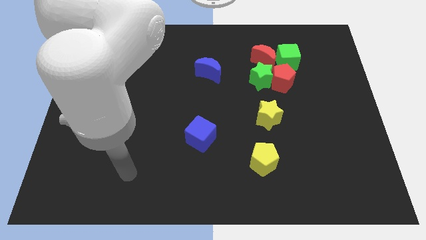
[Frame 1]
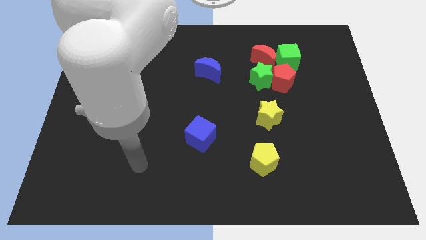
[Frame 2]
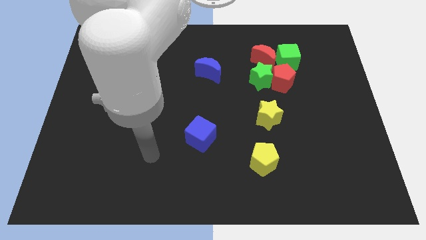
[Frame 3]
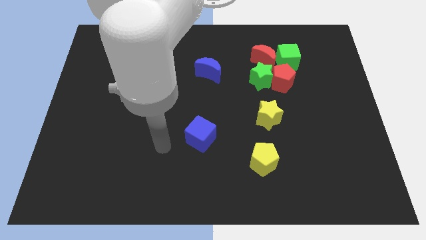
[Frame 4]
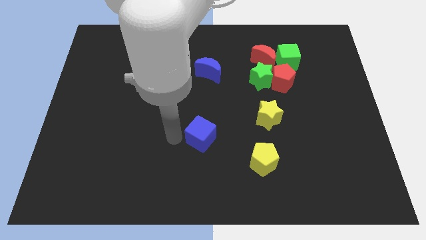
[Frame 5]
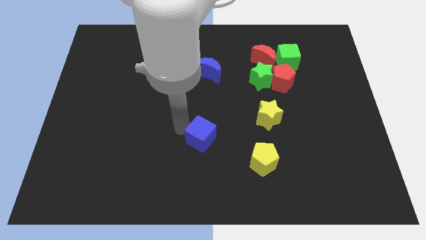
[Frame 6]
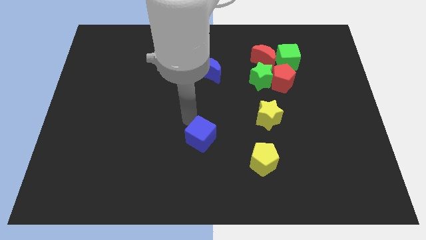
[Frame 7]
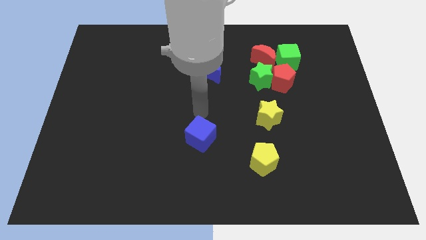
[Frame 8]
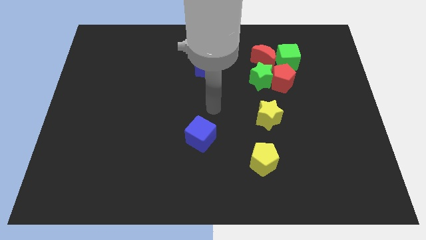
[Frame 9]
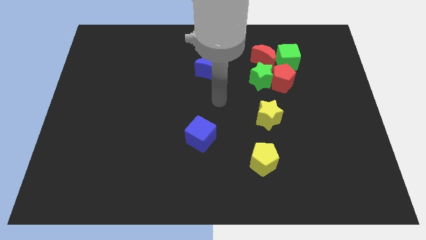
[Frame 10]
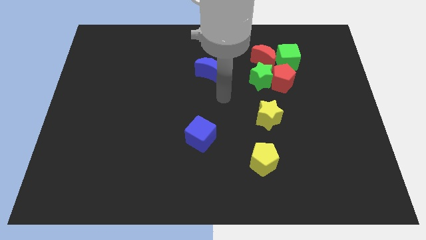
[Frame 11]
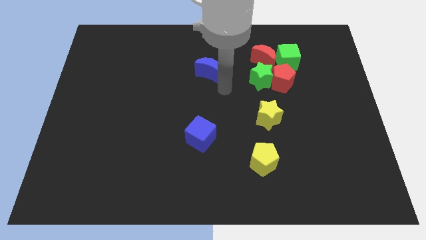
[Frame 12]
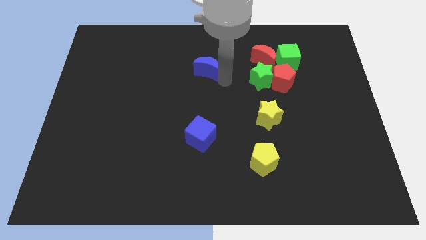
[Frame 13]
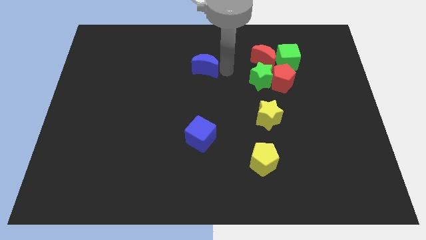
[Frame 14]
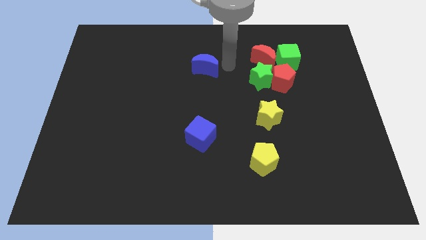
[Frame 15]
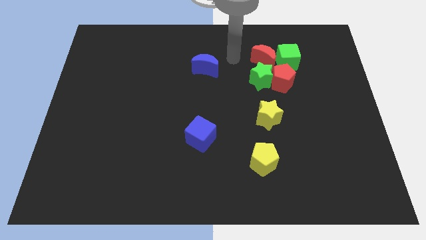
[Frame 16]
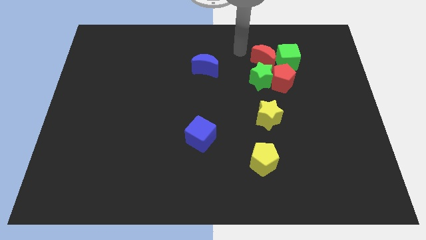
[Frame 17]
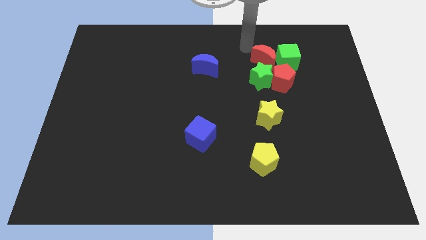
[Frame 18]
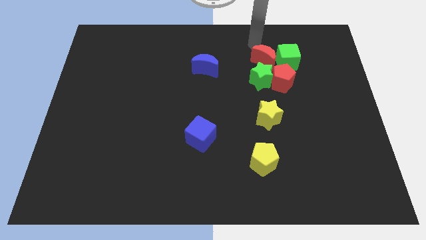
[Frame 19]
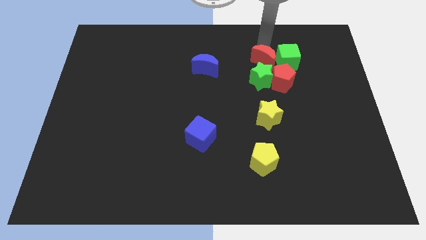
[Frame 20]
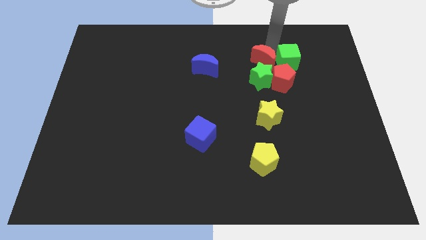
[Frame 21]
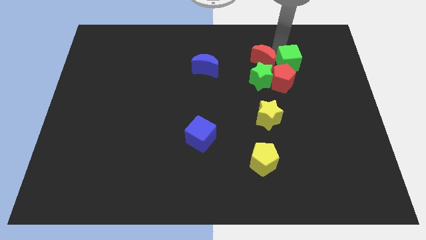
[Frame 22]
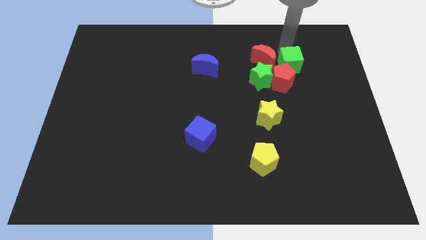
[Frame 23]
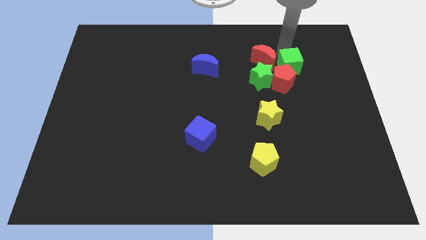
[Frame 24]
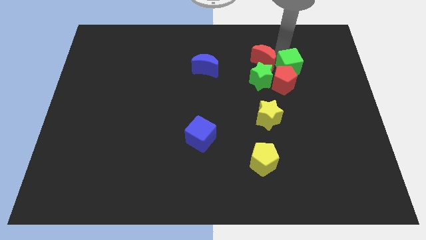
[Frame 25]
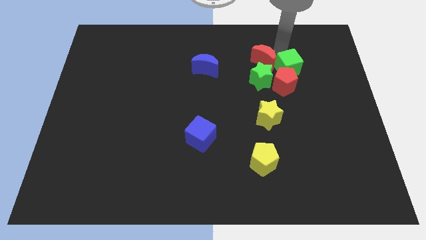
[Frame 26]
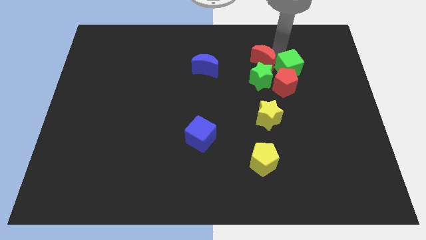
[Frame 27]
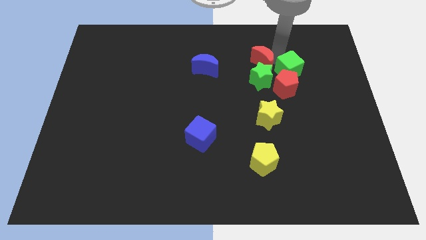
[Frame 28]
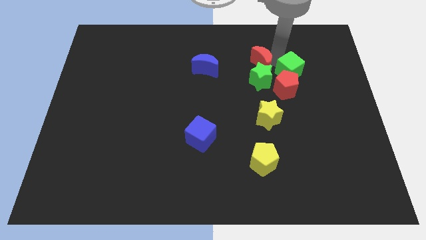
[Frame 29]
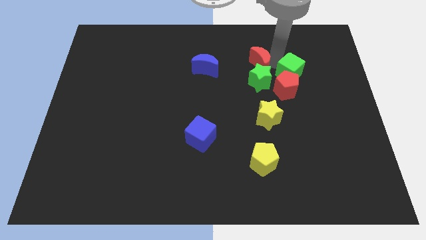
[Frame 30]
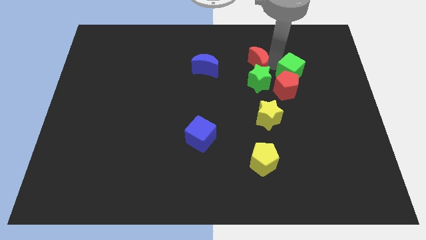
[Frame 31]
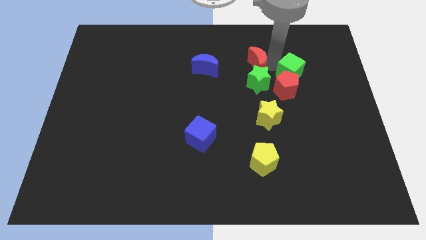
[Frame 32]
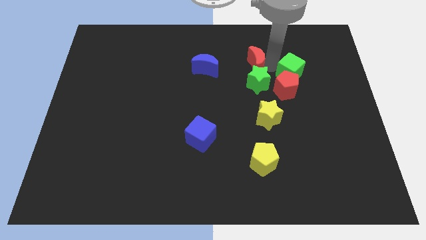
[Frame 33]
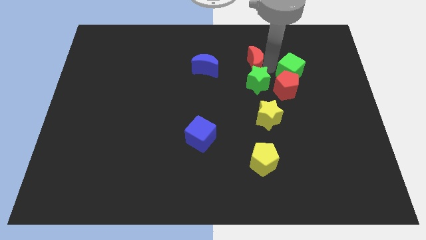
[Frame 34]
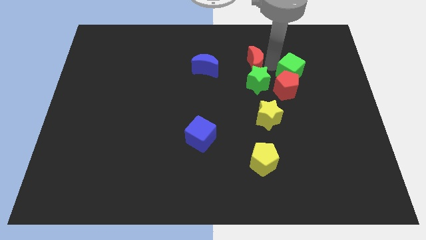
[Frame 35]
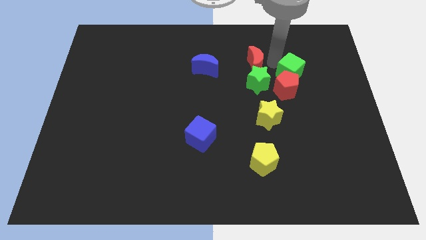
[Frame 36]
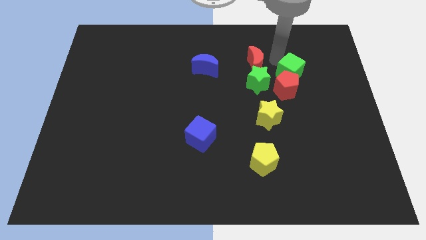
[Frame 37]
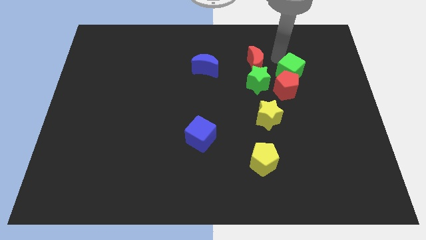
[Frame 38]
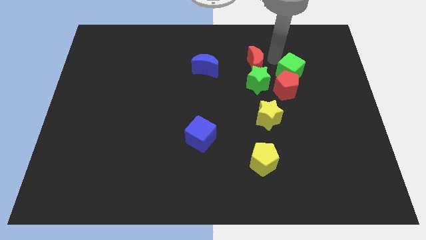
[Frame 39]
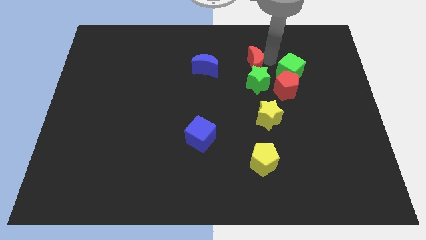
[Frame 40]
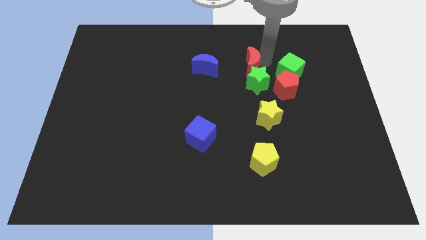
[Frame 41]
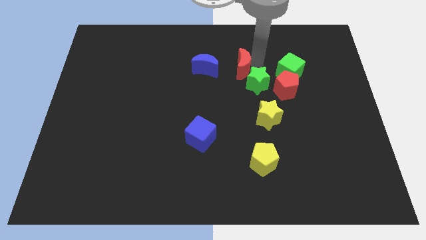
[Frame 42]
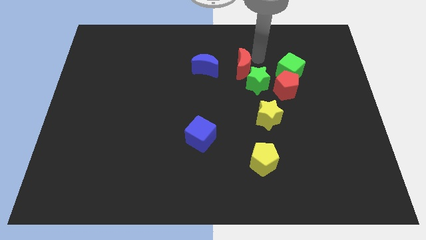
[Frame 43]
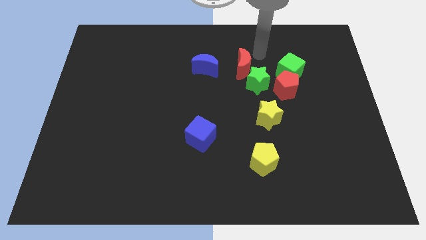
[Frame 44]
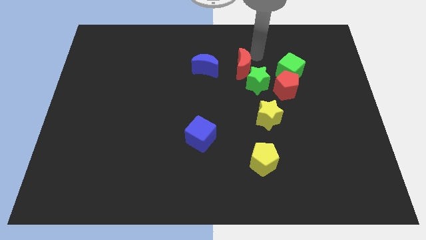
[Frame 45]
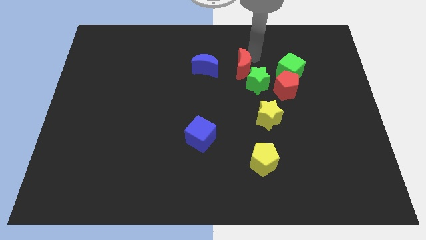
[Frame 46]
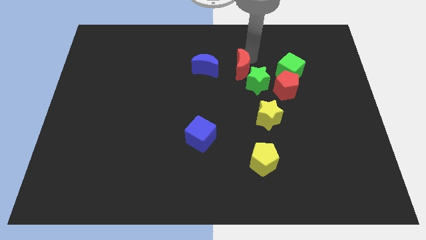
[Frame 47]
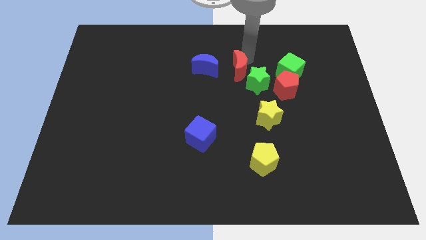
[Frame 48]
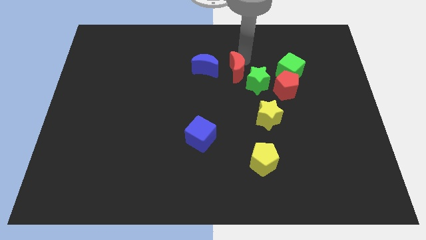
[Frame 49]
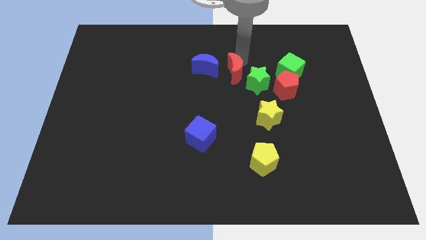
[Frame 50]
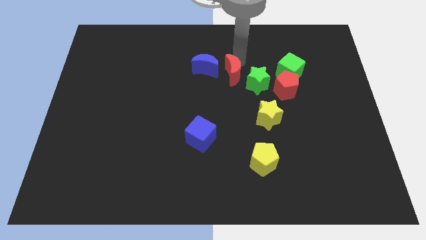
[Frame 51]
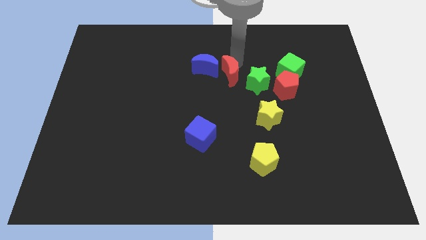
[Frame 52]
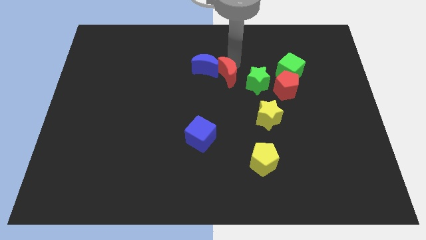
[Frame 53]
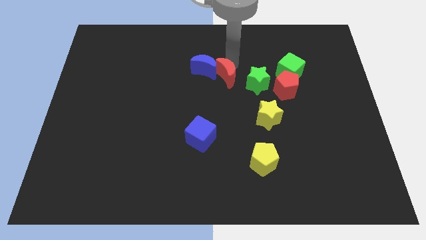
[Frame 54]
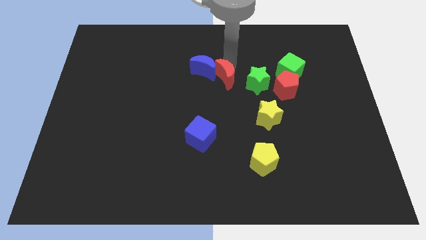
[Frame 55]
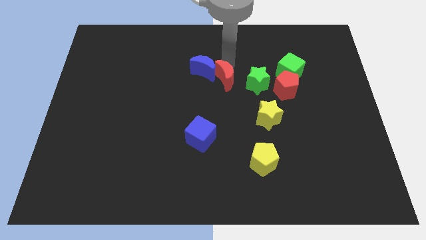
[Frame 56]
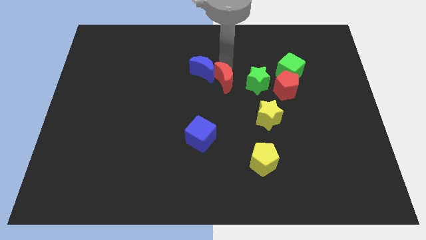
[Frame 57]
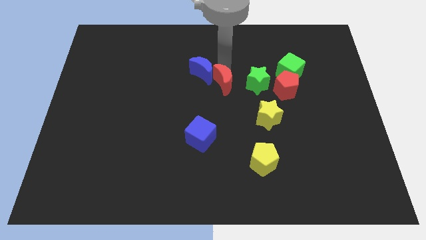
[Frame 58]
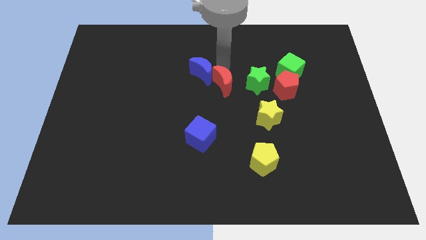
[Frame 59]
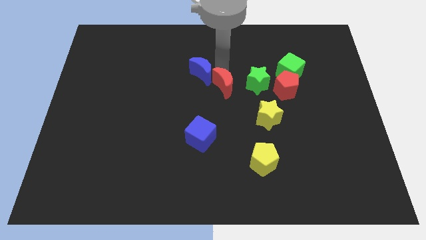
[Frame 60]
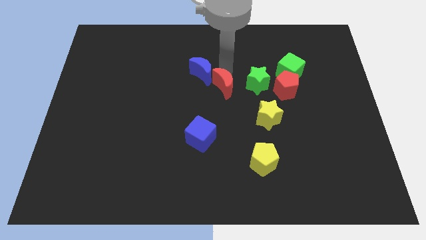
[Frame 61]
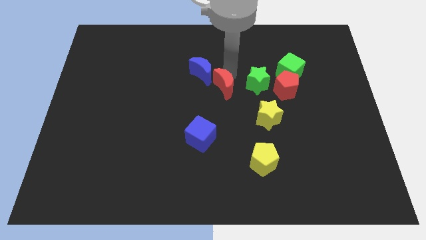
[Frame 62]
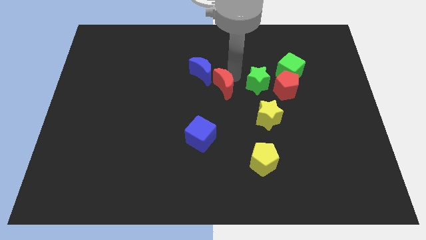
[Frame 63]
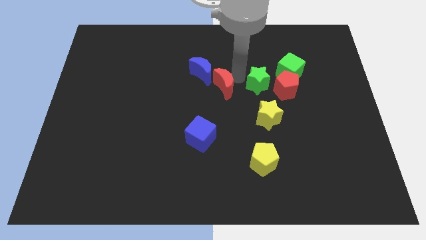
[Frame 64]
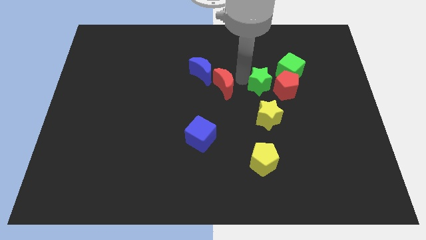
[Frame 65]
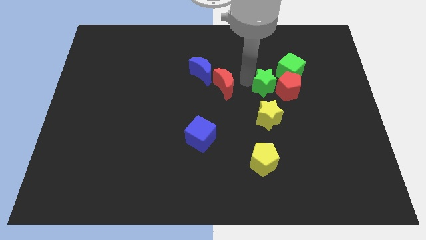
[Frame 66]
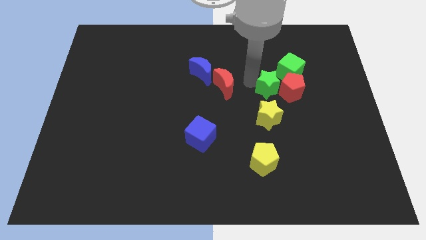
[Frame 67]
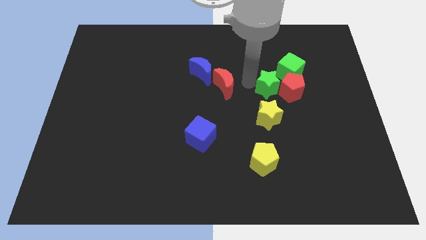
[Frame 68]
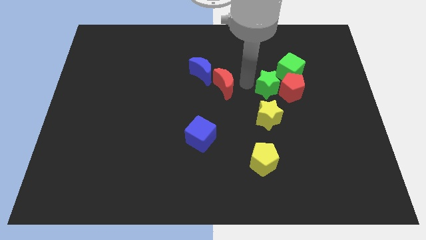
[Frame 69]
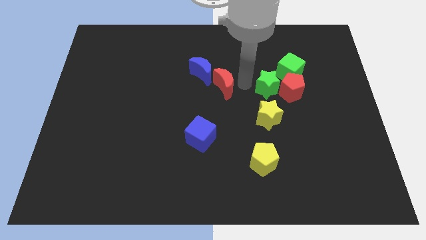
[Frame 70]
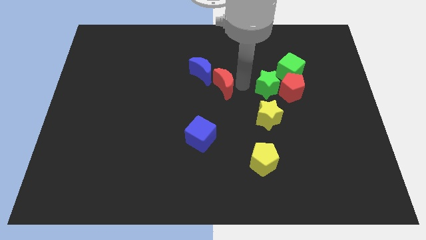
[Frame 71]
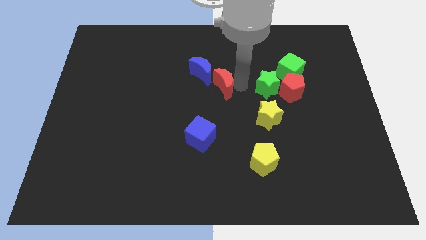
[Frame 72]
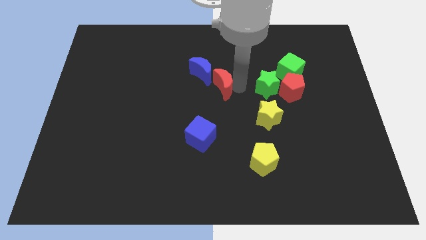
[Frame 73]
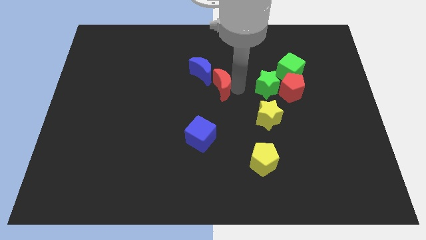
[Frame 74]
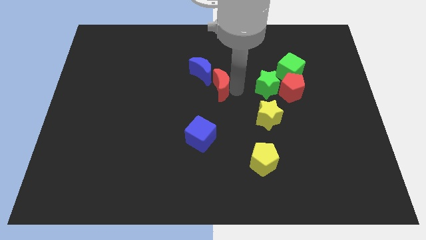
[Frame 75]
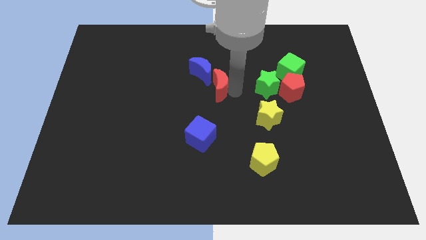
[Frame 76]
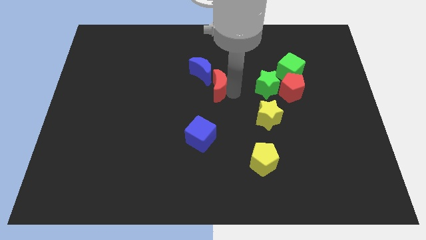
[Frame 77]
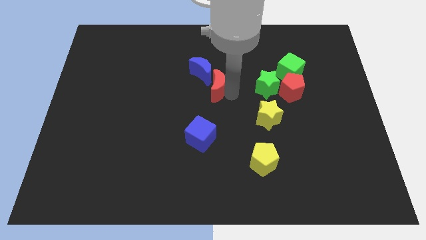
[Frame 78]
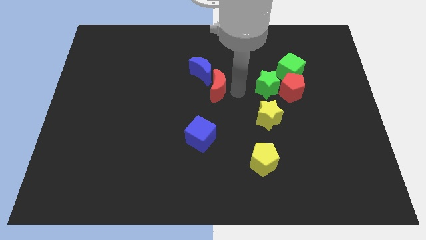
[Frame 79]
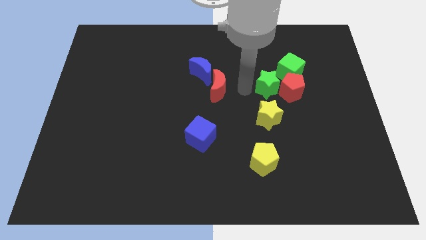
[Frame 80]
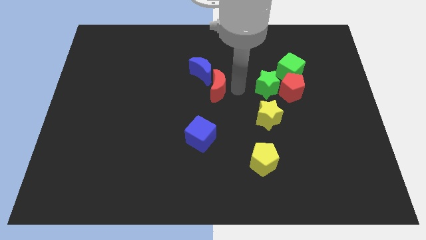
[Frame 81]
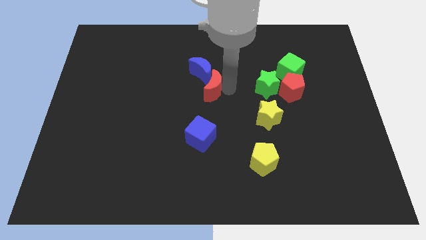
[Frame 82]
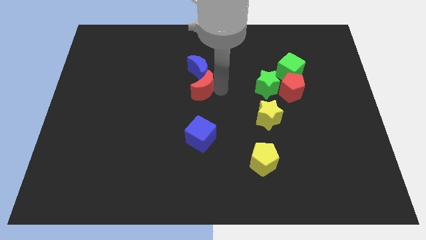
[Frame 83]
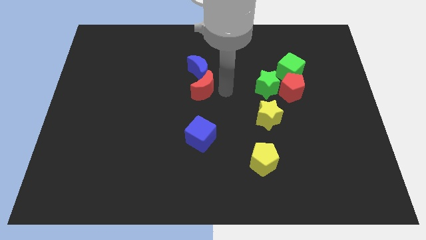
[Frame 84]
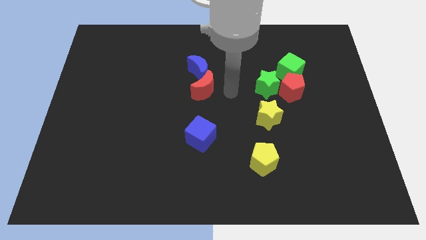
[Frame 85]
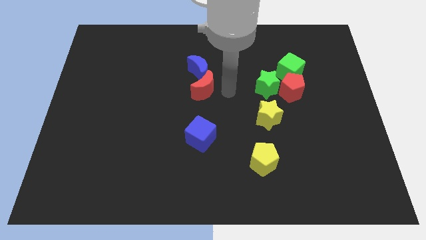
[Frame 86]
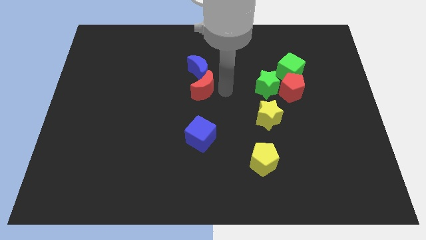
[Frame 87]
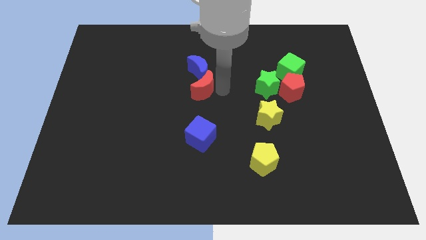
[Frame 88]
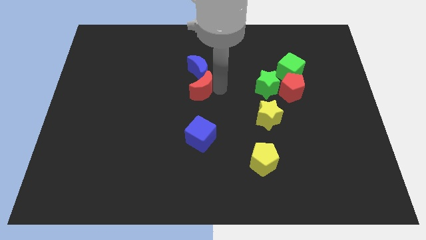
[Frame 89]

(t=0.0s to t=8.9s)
push the red moon diagonally down and to the left of the blue moon
